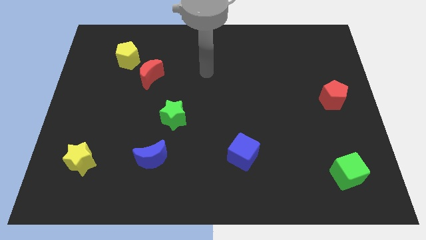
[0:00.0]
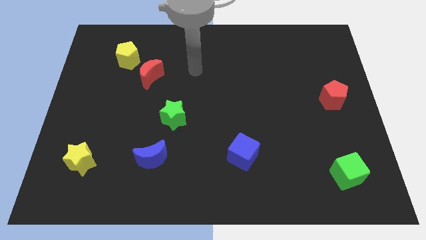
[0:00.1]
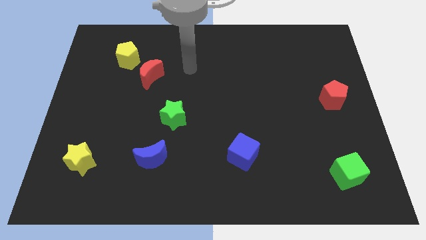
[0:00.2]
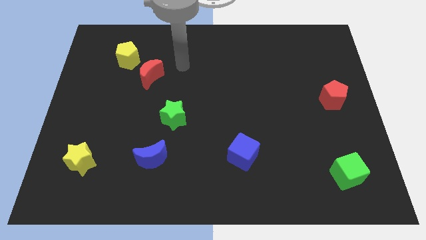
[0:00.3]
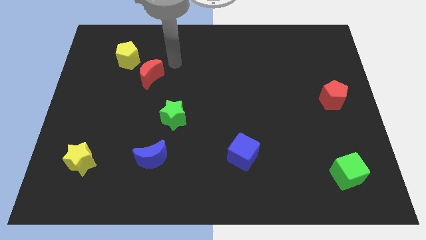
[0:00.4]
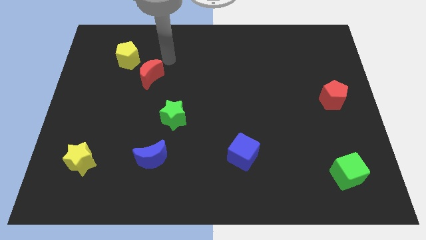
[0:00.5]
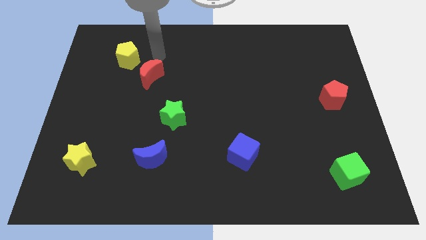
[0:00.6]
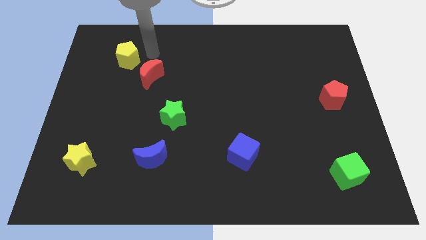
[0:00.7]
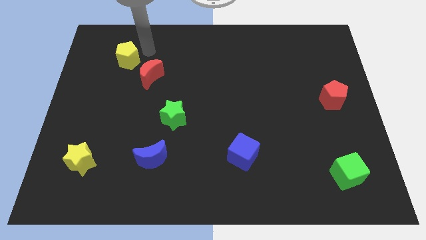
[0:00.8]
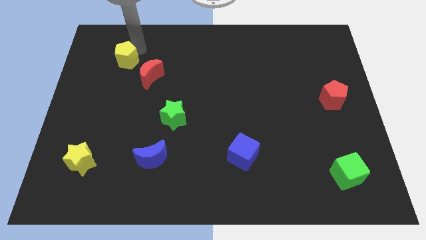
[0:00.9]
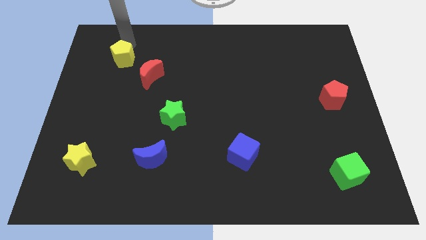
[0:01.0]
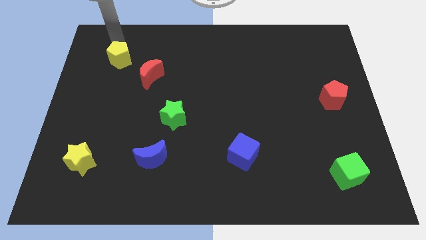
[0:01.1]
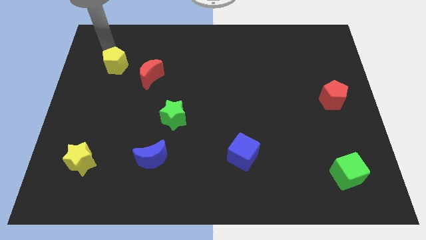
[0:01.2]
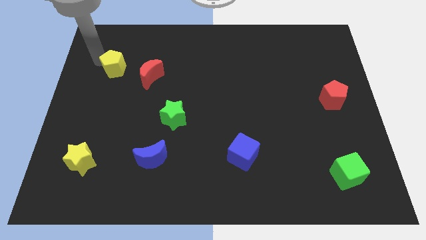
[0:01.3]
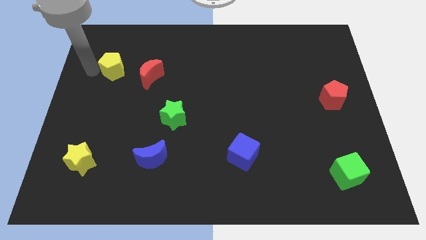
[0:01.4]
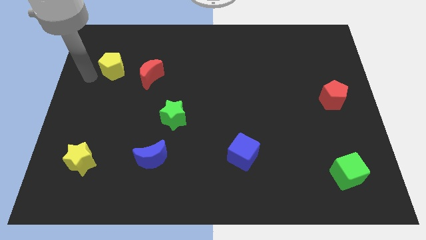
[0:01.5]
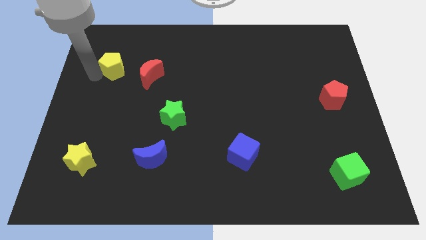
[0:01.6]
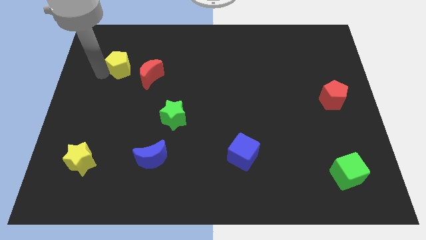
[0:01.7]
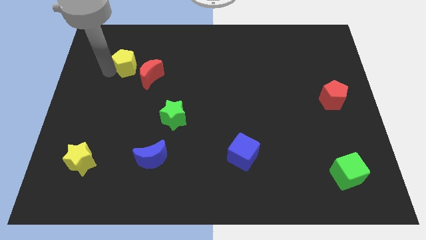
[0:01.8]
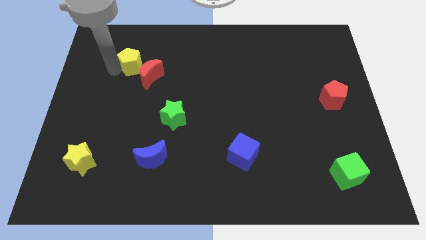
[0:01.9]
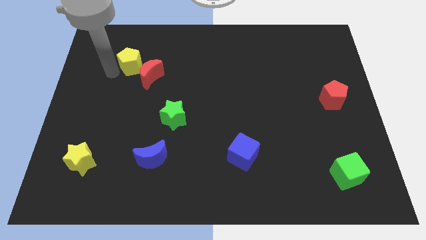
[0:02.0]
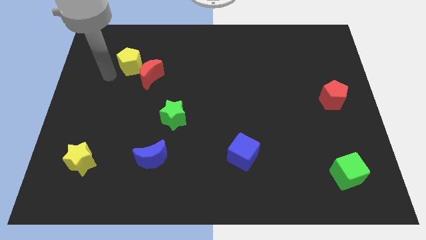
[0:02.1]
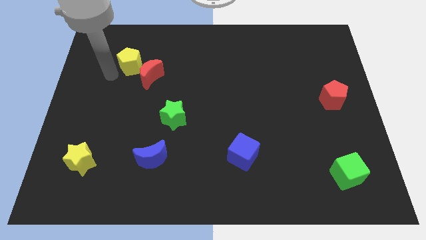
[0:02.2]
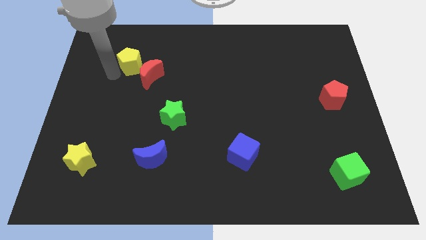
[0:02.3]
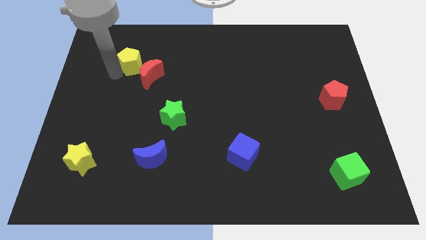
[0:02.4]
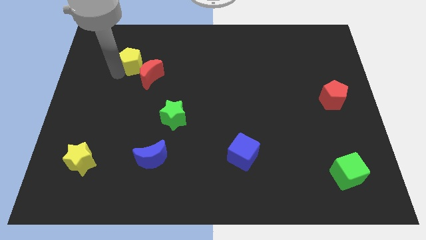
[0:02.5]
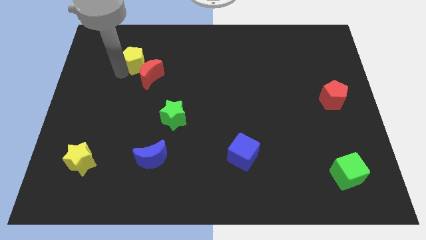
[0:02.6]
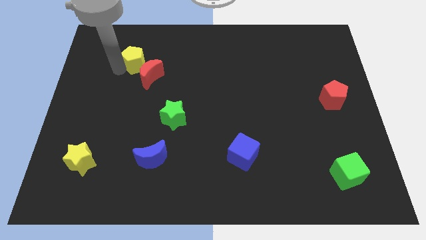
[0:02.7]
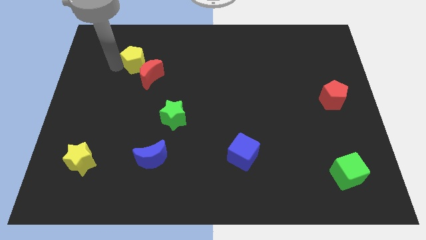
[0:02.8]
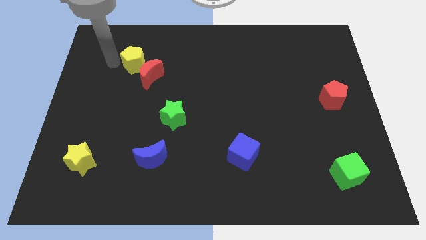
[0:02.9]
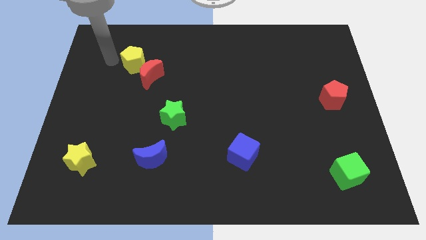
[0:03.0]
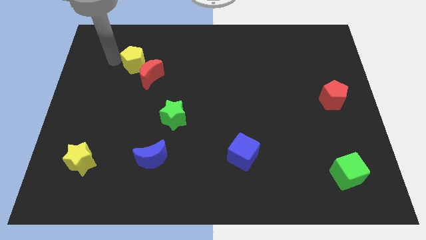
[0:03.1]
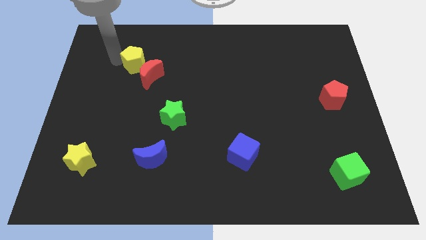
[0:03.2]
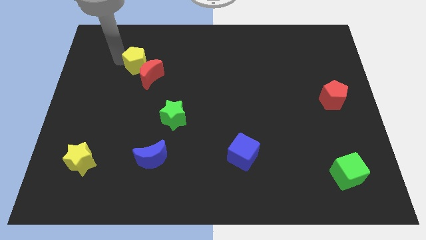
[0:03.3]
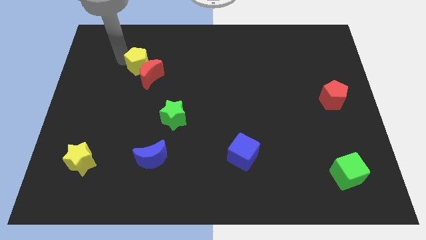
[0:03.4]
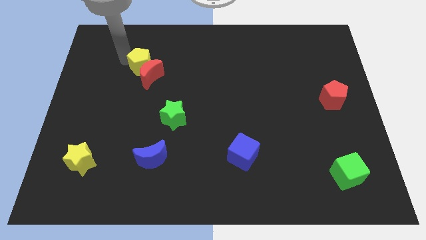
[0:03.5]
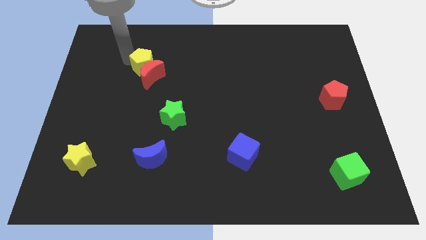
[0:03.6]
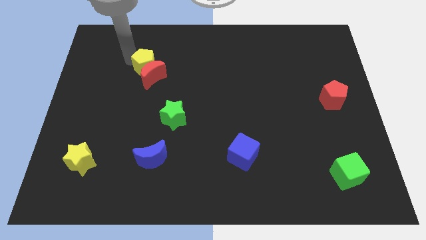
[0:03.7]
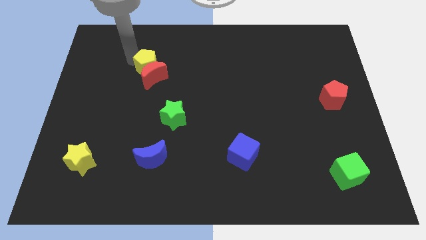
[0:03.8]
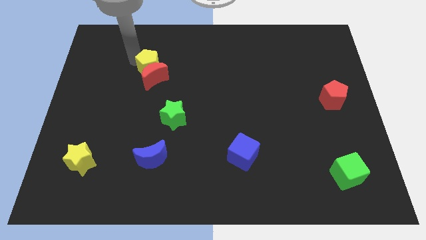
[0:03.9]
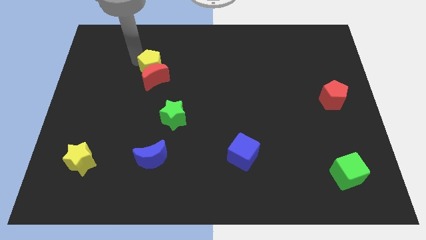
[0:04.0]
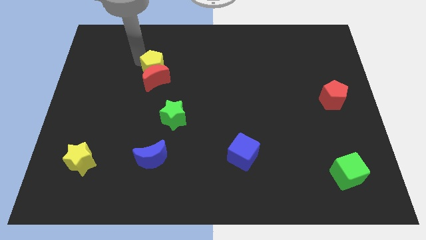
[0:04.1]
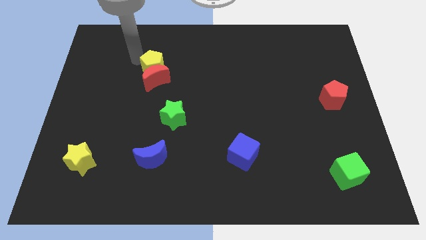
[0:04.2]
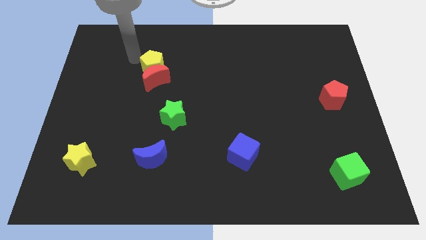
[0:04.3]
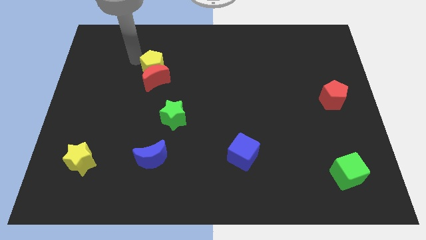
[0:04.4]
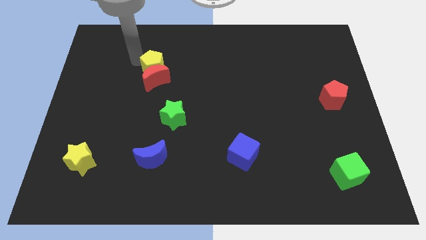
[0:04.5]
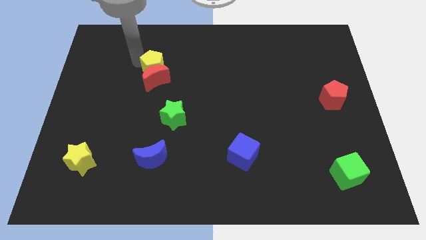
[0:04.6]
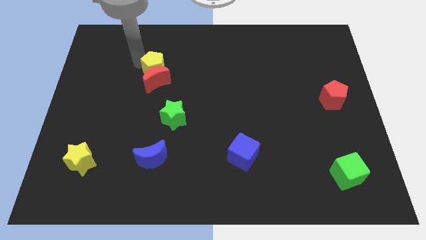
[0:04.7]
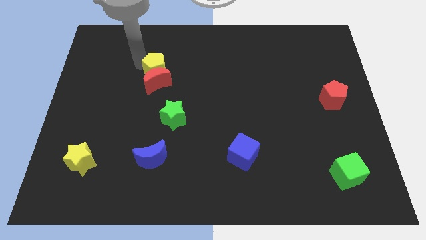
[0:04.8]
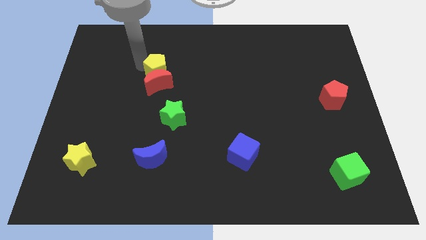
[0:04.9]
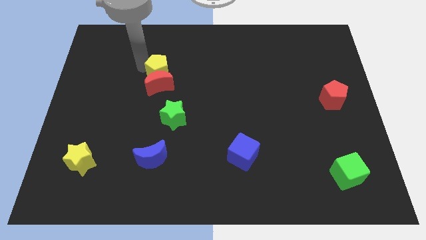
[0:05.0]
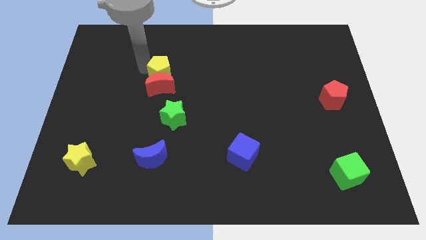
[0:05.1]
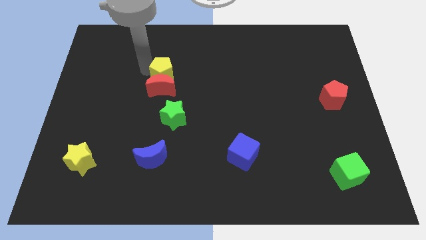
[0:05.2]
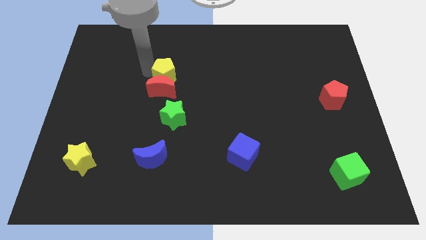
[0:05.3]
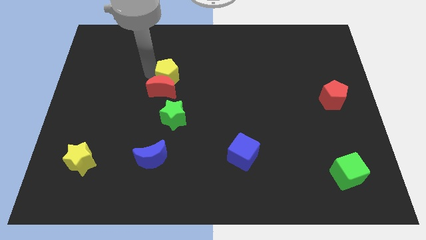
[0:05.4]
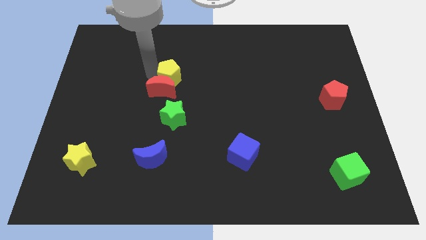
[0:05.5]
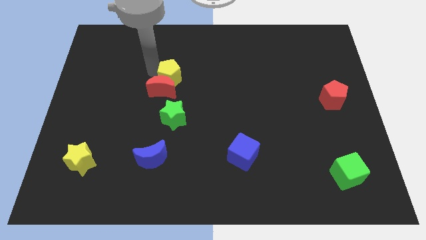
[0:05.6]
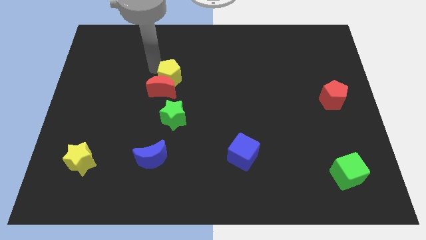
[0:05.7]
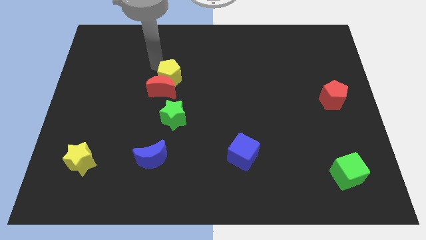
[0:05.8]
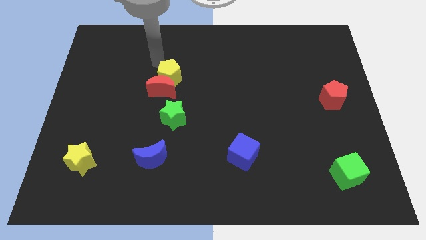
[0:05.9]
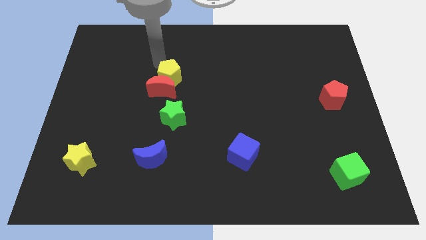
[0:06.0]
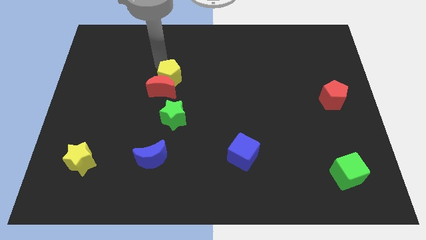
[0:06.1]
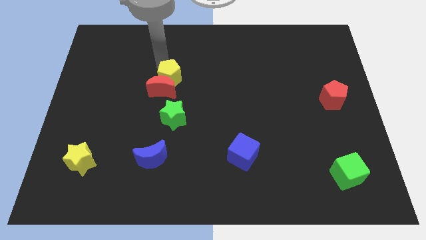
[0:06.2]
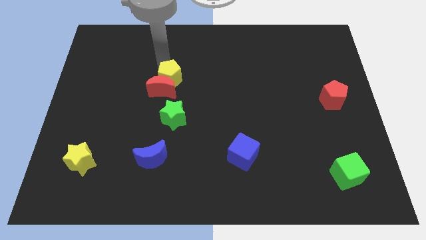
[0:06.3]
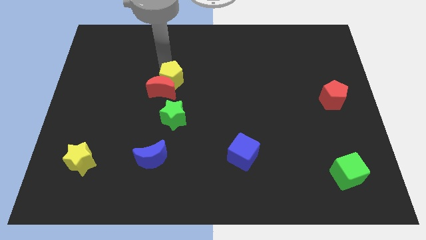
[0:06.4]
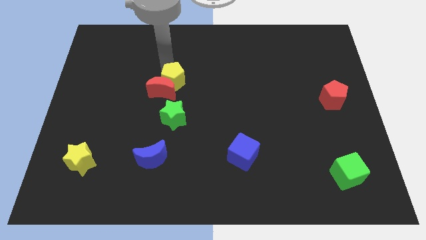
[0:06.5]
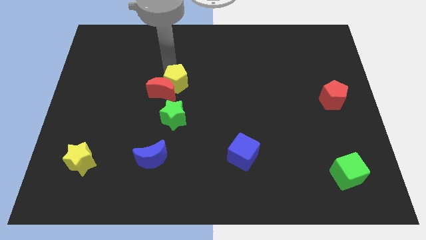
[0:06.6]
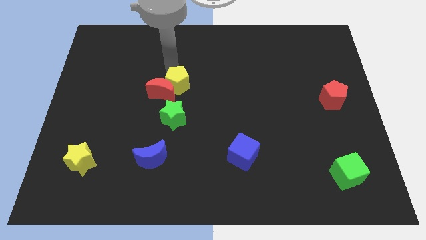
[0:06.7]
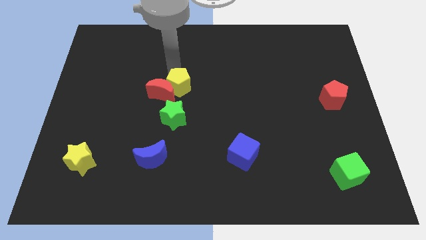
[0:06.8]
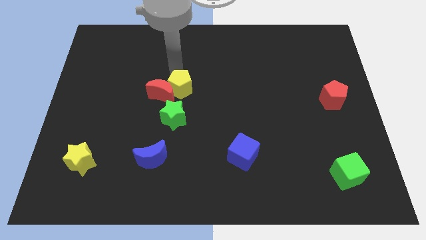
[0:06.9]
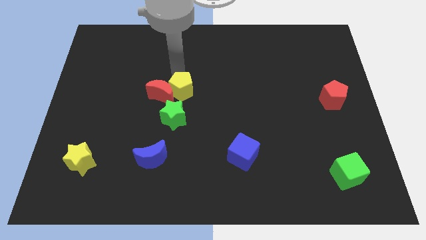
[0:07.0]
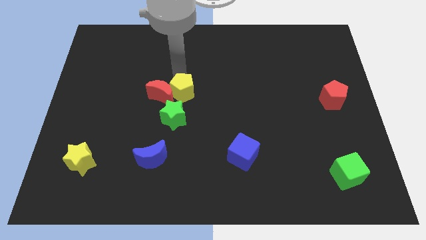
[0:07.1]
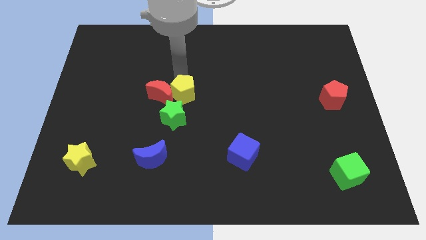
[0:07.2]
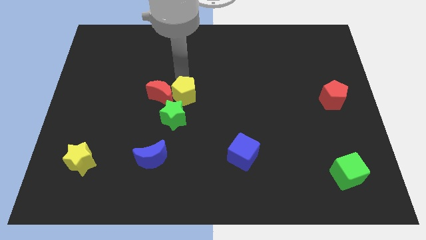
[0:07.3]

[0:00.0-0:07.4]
push the yellow pentagon diagonally down and to the right

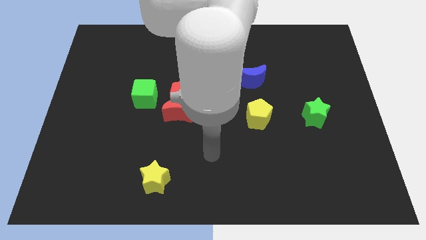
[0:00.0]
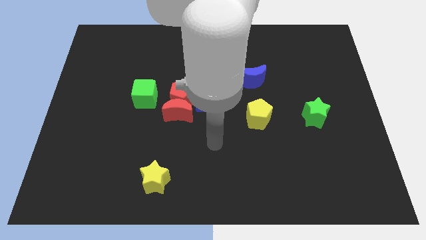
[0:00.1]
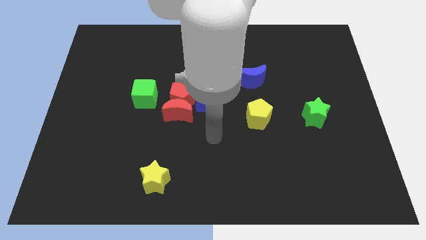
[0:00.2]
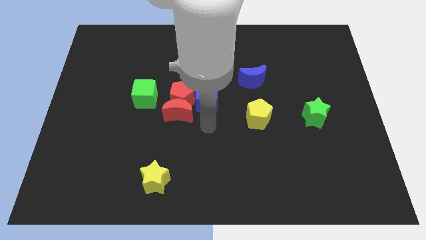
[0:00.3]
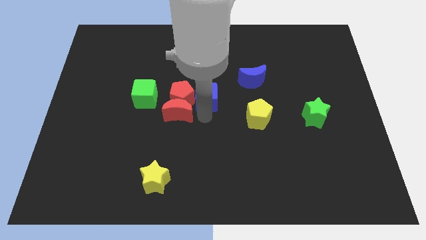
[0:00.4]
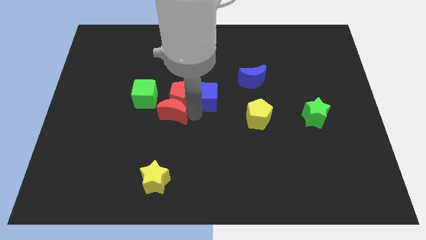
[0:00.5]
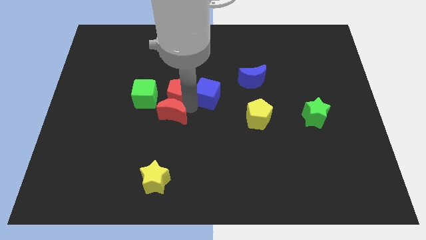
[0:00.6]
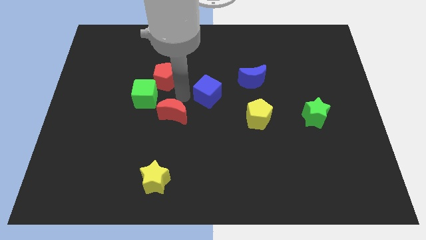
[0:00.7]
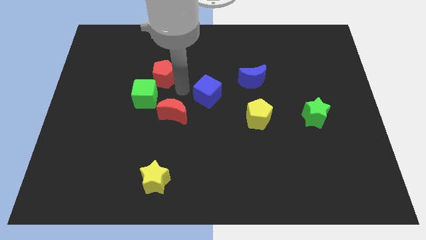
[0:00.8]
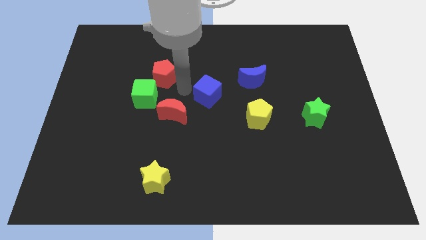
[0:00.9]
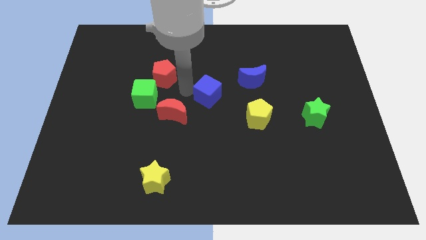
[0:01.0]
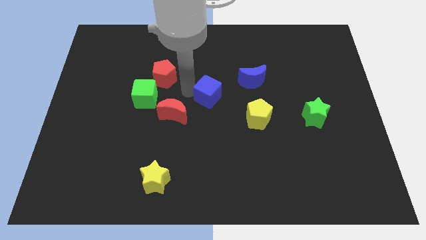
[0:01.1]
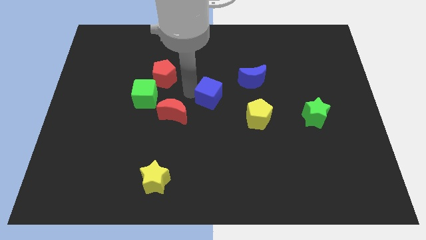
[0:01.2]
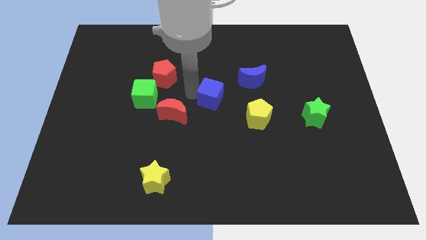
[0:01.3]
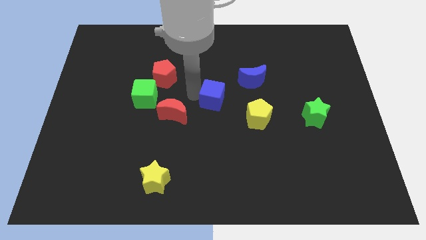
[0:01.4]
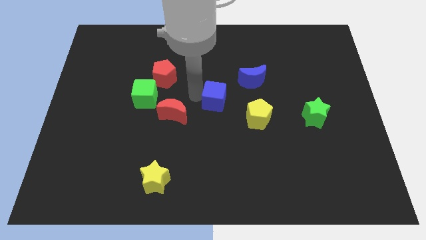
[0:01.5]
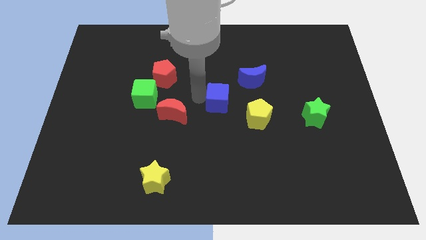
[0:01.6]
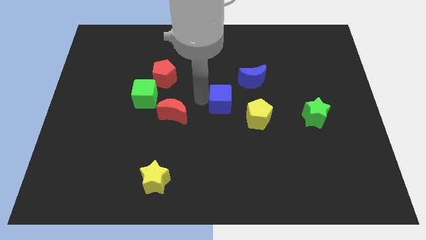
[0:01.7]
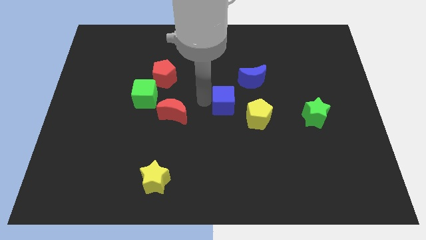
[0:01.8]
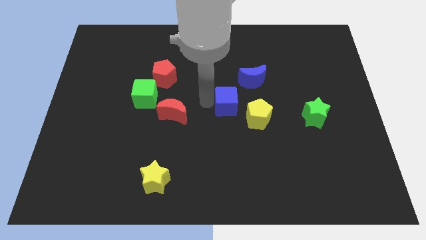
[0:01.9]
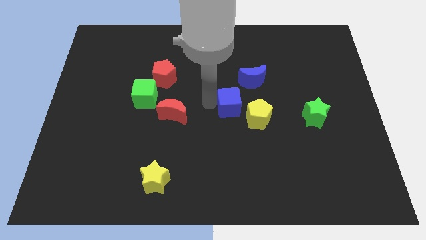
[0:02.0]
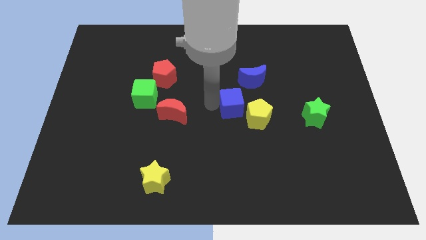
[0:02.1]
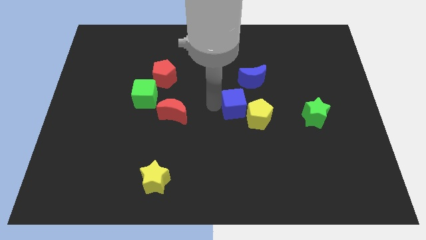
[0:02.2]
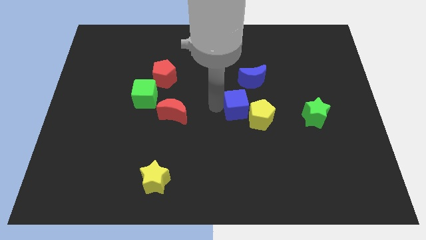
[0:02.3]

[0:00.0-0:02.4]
slide the blue cube somewhat to the right
